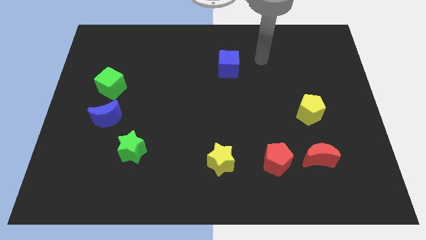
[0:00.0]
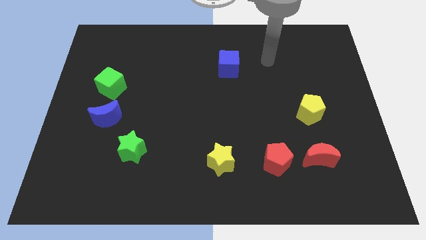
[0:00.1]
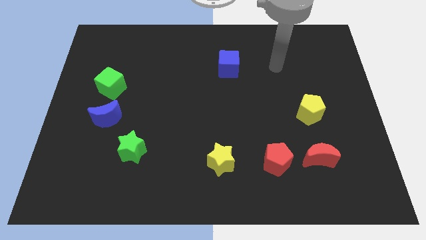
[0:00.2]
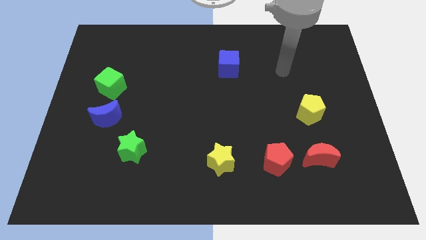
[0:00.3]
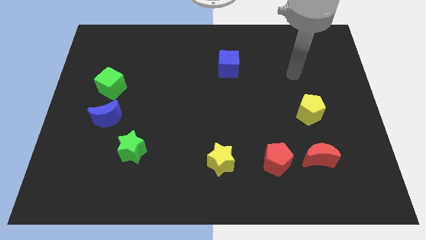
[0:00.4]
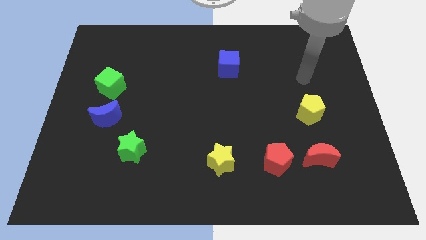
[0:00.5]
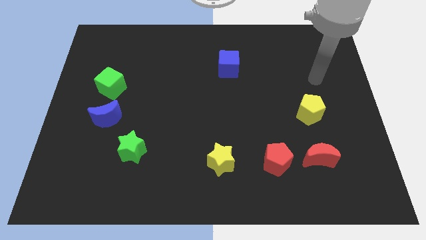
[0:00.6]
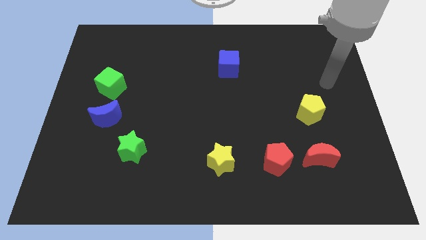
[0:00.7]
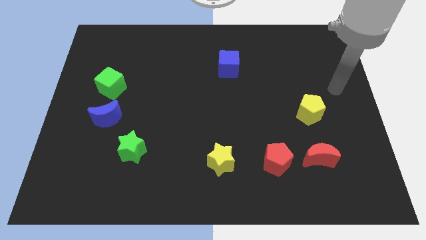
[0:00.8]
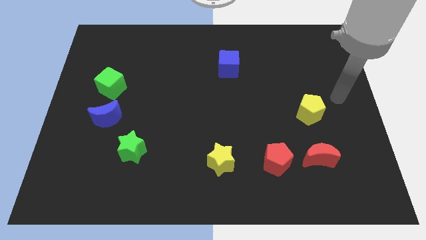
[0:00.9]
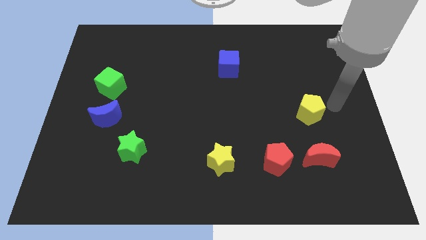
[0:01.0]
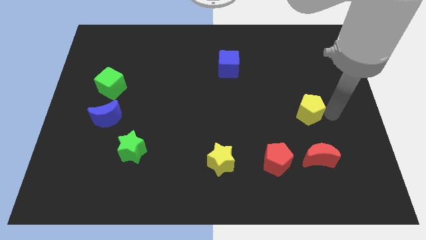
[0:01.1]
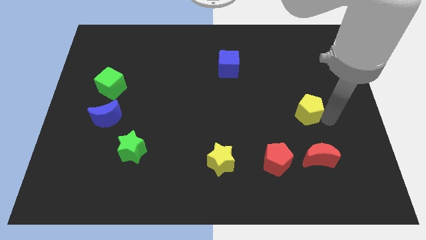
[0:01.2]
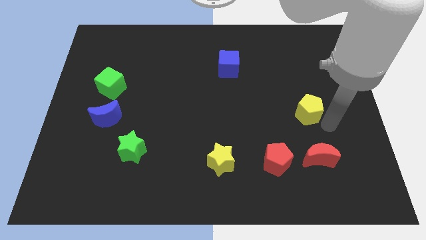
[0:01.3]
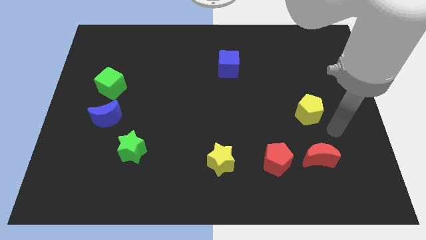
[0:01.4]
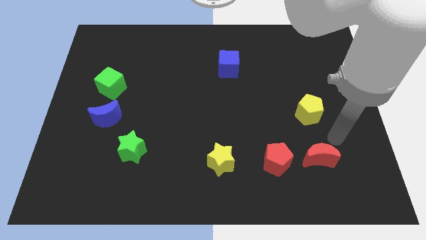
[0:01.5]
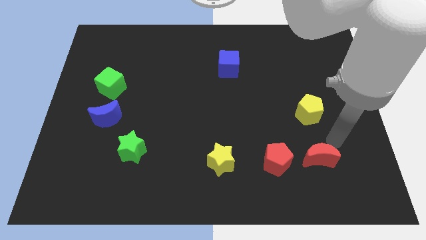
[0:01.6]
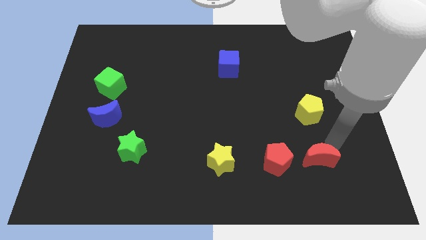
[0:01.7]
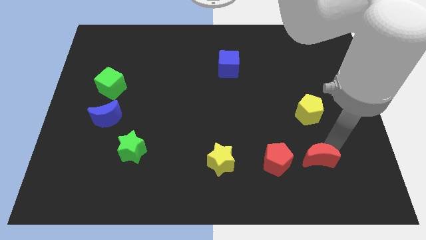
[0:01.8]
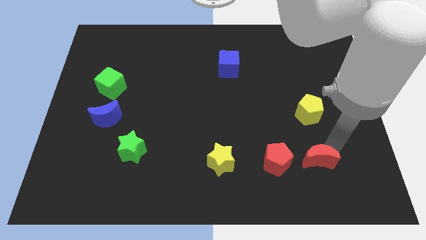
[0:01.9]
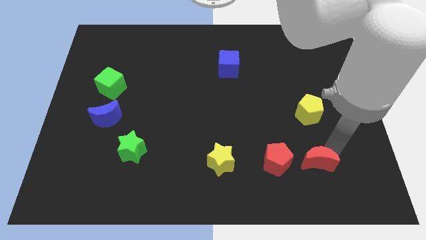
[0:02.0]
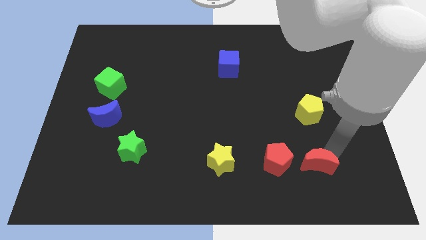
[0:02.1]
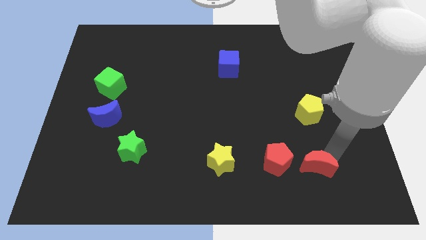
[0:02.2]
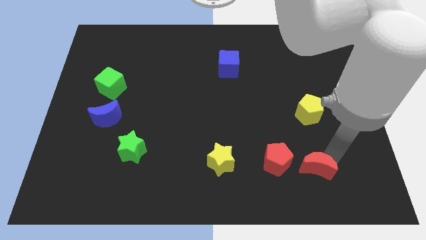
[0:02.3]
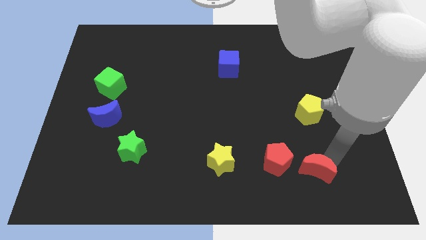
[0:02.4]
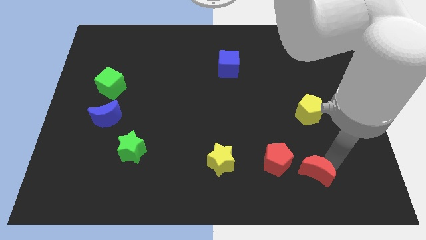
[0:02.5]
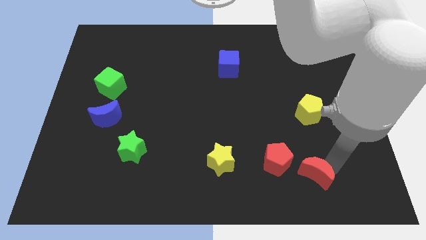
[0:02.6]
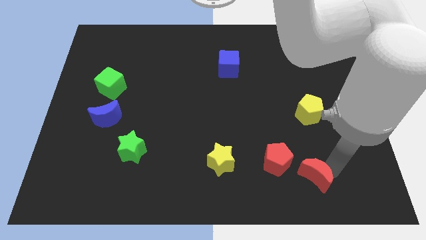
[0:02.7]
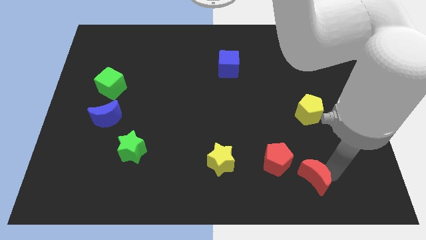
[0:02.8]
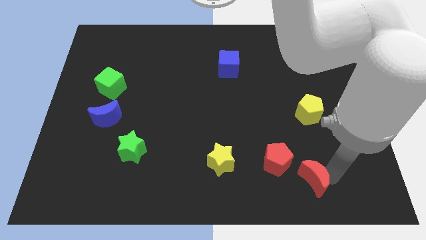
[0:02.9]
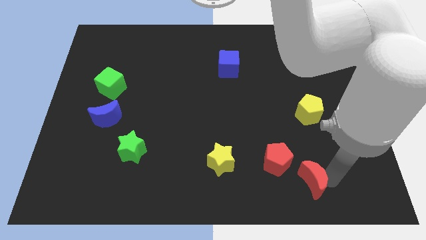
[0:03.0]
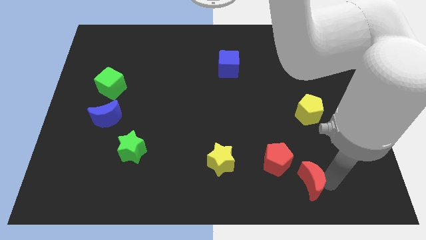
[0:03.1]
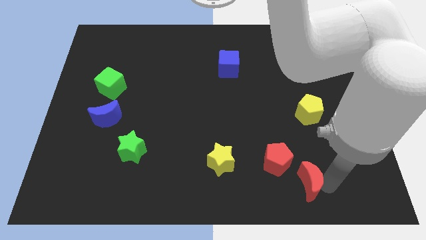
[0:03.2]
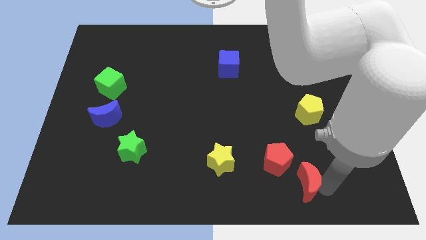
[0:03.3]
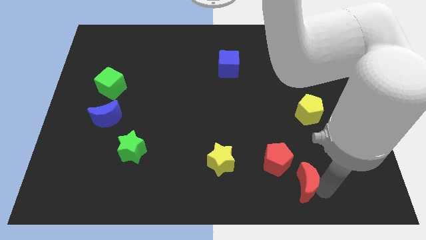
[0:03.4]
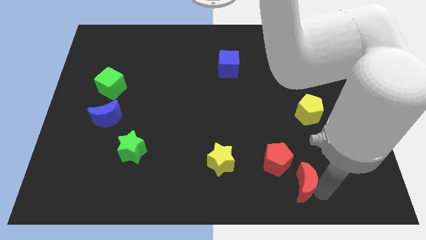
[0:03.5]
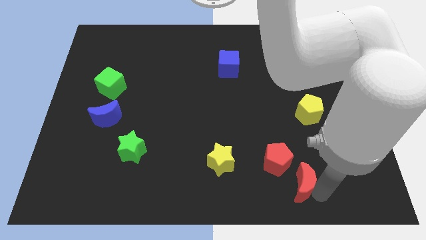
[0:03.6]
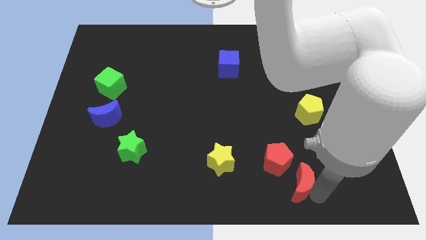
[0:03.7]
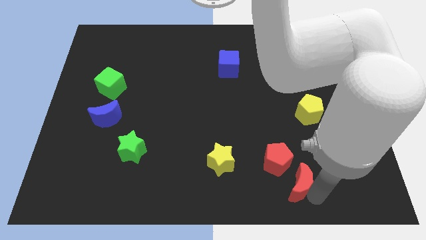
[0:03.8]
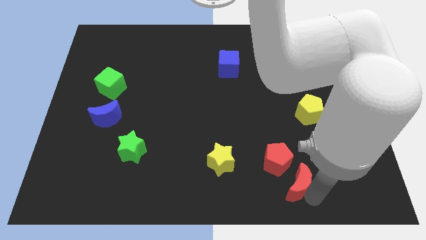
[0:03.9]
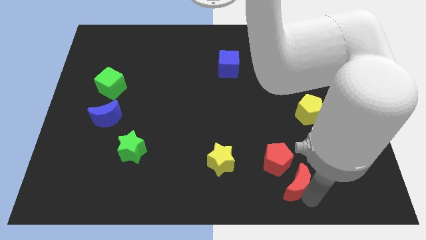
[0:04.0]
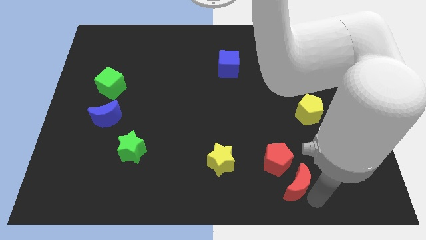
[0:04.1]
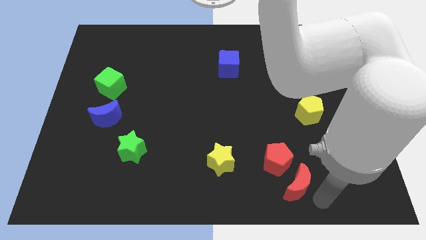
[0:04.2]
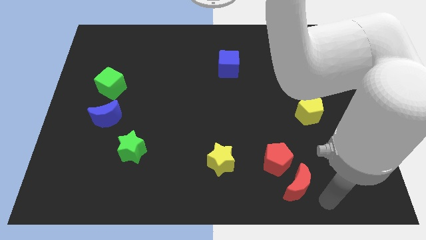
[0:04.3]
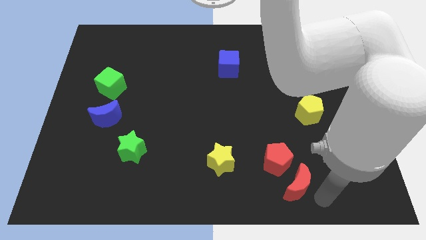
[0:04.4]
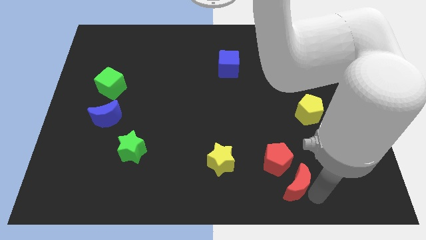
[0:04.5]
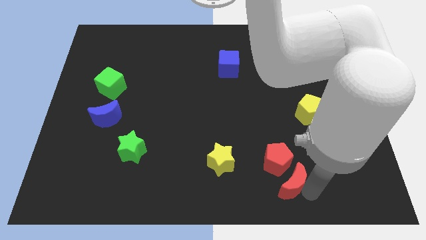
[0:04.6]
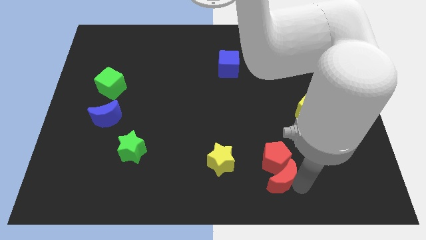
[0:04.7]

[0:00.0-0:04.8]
push the red moon to the bottom left side of the red pentagon

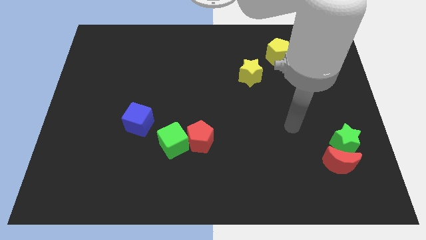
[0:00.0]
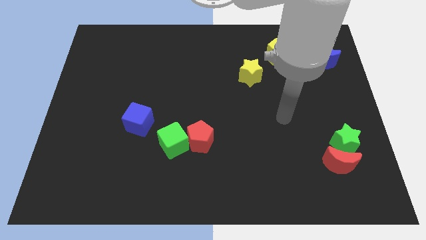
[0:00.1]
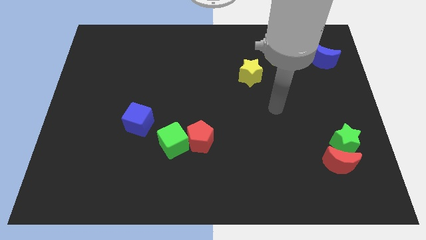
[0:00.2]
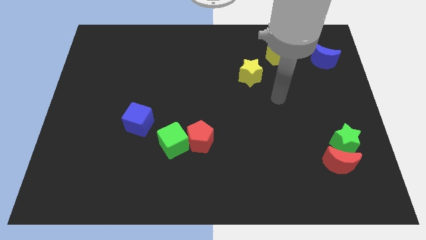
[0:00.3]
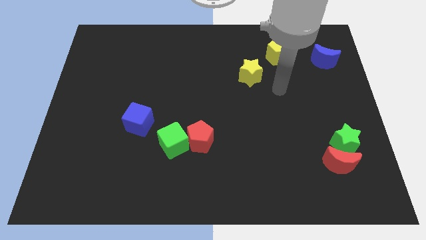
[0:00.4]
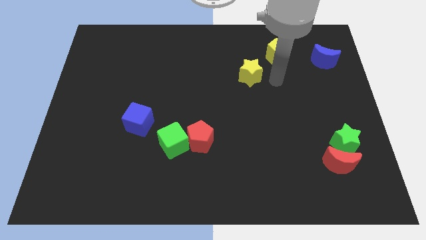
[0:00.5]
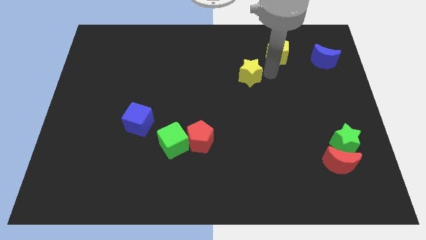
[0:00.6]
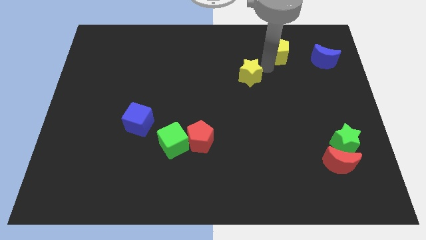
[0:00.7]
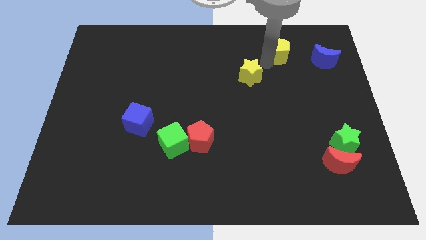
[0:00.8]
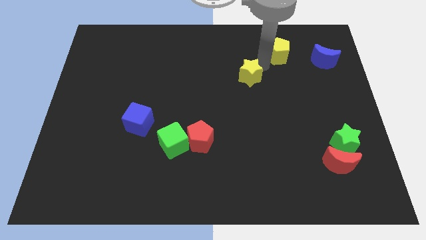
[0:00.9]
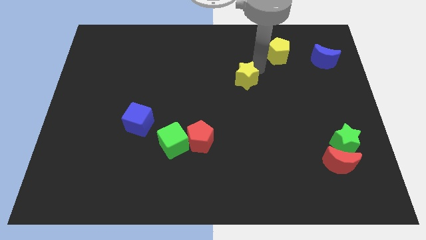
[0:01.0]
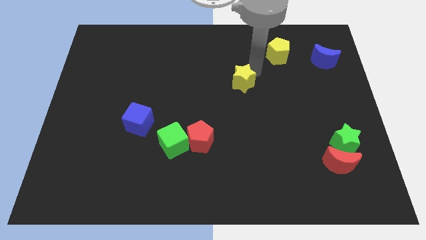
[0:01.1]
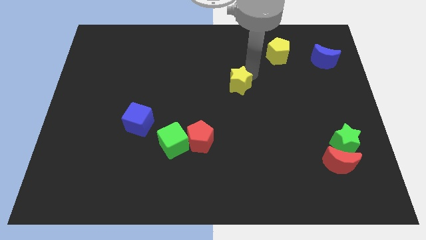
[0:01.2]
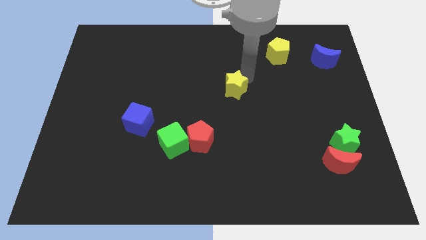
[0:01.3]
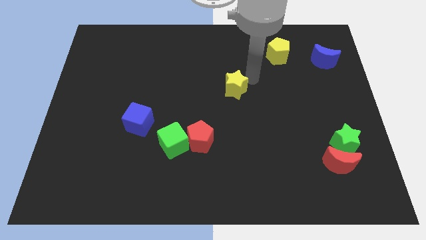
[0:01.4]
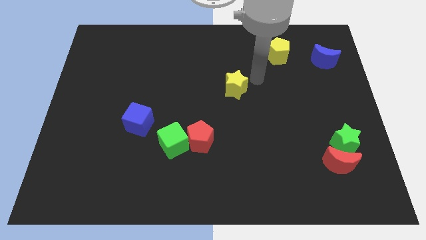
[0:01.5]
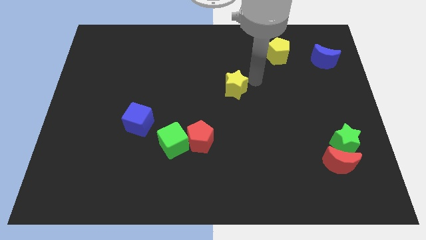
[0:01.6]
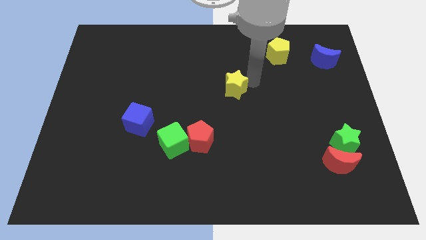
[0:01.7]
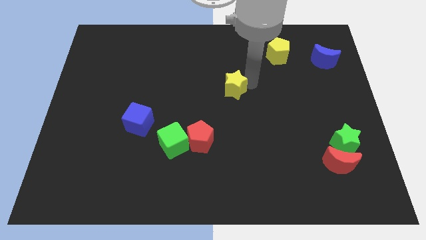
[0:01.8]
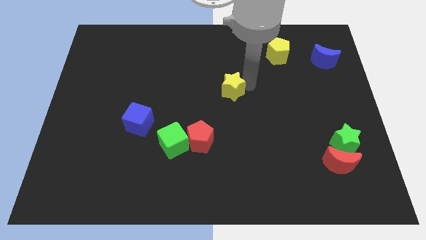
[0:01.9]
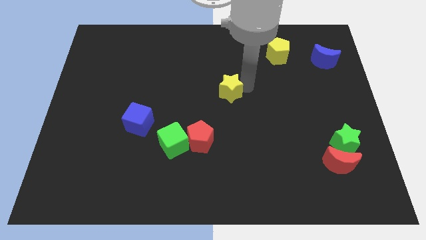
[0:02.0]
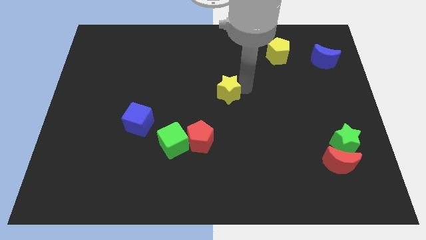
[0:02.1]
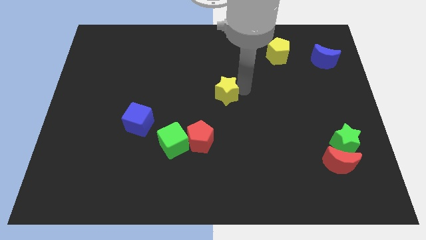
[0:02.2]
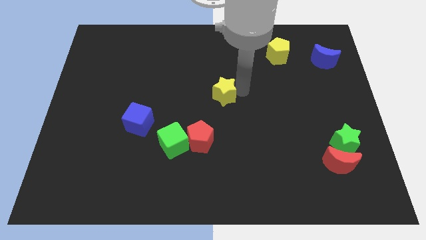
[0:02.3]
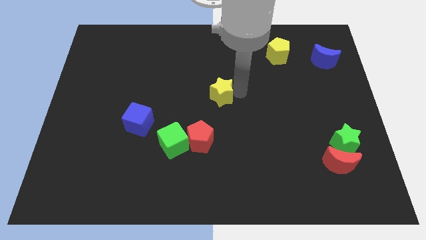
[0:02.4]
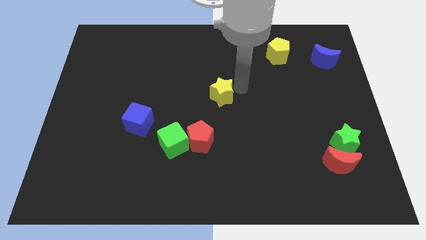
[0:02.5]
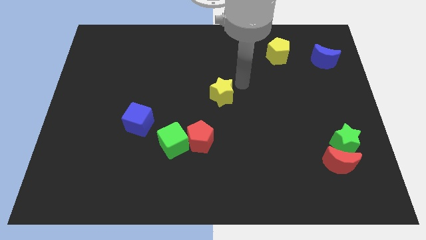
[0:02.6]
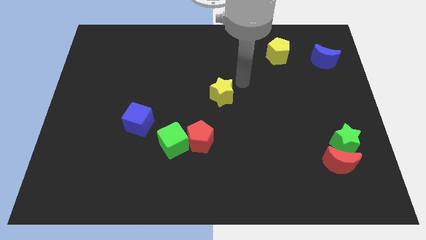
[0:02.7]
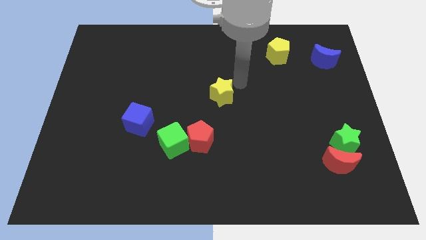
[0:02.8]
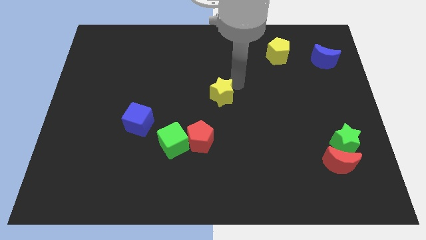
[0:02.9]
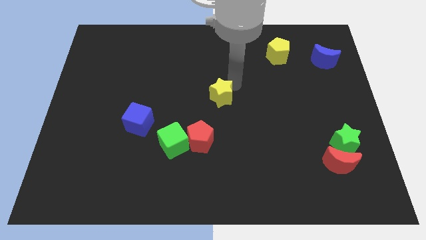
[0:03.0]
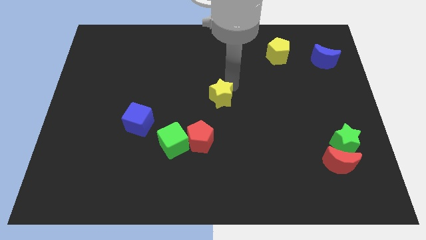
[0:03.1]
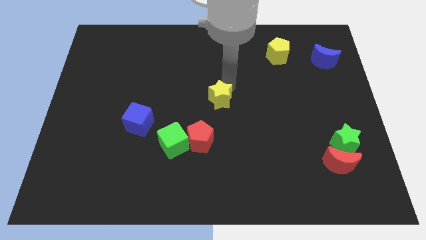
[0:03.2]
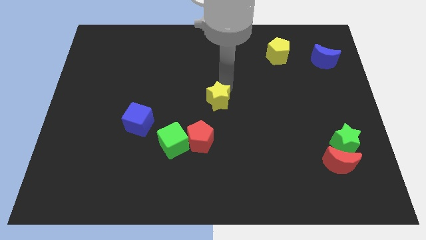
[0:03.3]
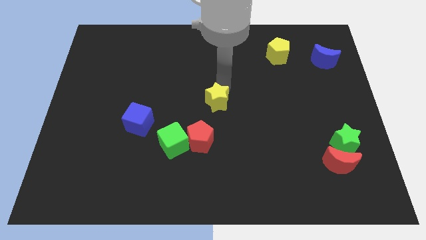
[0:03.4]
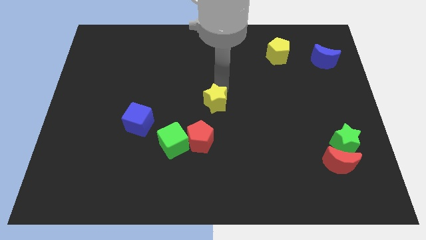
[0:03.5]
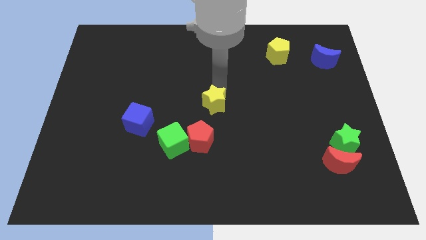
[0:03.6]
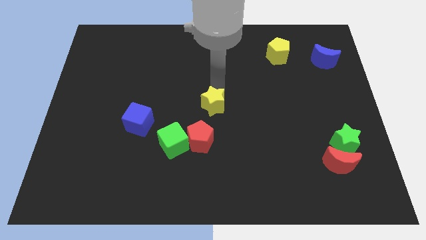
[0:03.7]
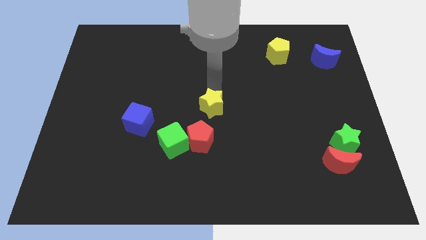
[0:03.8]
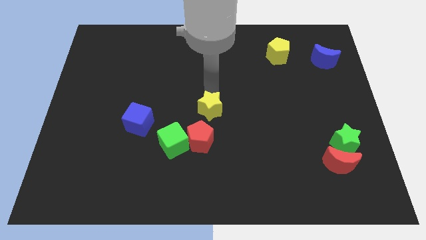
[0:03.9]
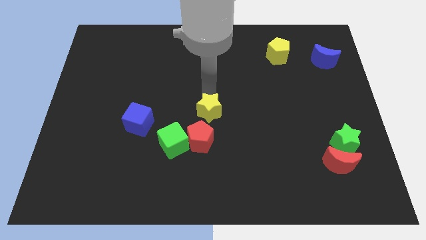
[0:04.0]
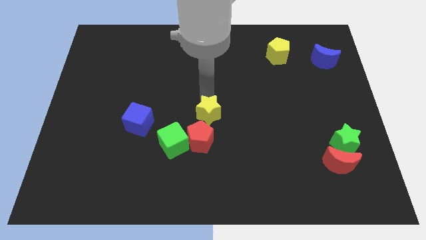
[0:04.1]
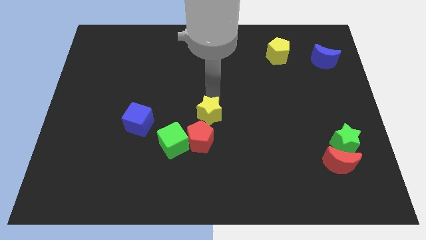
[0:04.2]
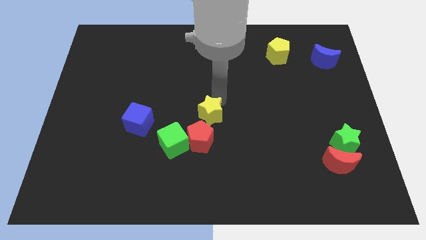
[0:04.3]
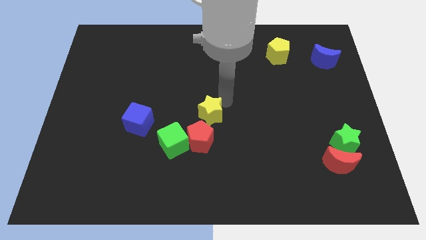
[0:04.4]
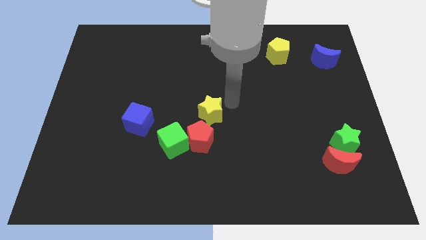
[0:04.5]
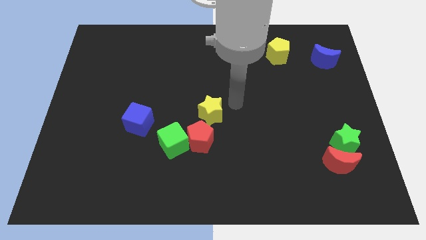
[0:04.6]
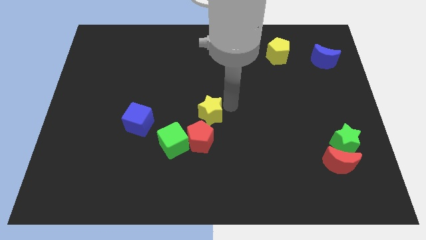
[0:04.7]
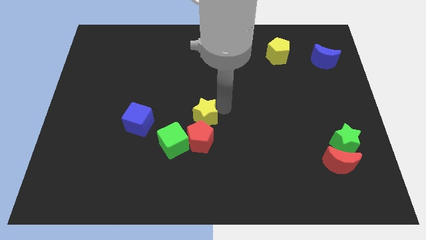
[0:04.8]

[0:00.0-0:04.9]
move the yellow star right of the blue cube
